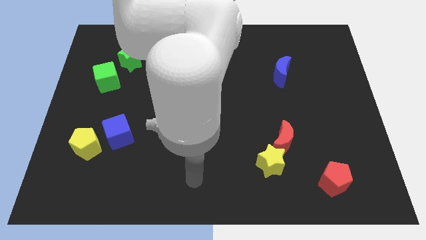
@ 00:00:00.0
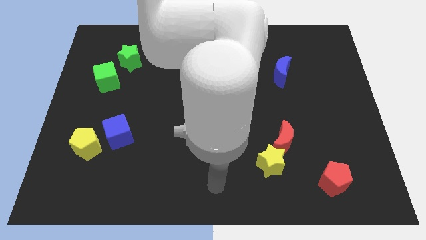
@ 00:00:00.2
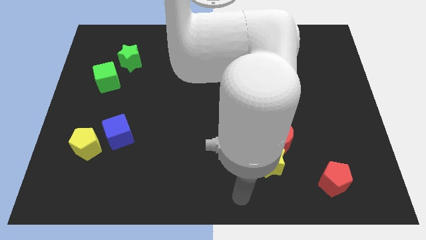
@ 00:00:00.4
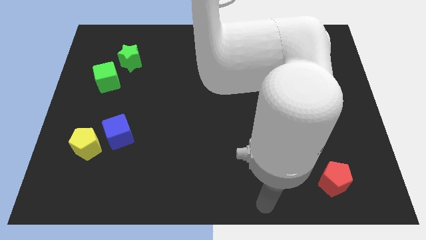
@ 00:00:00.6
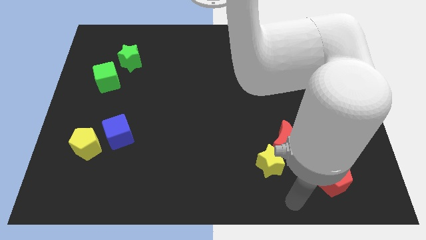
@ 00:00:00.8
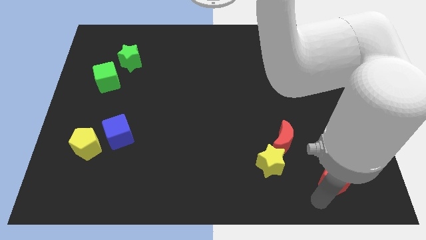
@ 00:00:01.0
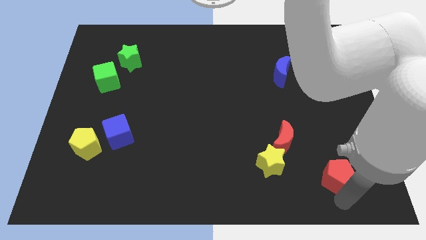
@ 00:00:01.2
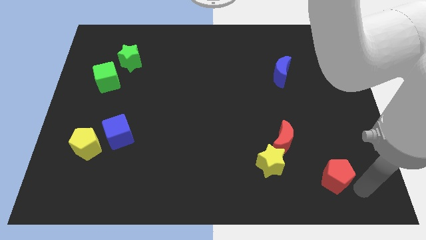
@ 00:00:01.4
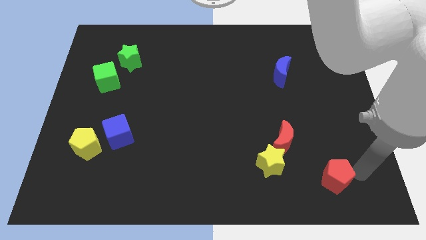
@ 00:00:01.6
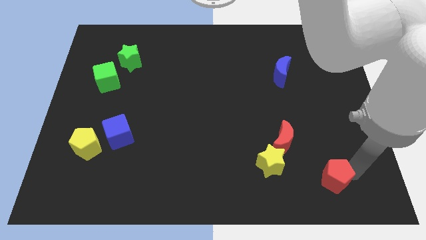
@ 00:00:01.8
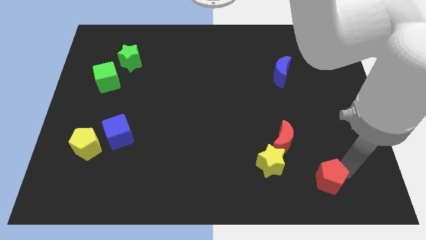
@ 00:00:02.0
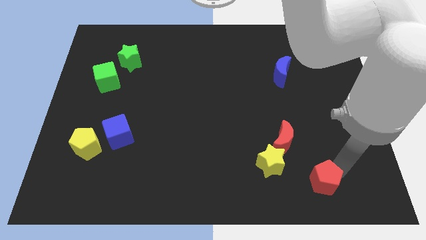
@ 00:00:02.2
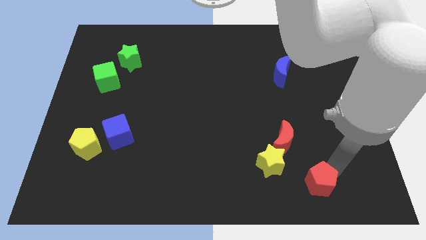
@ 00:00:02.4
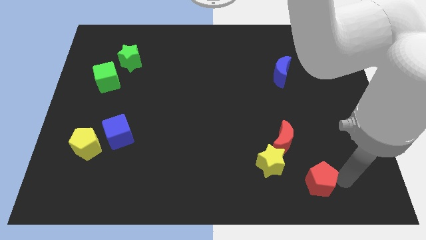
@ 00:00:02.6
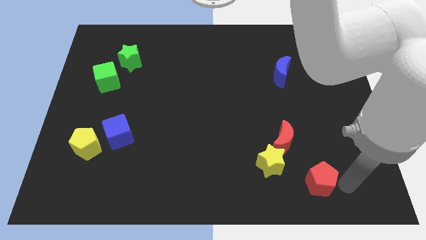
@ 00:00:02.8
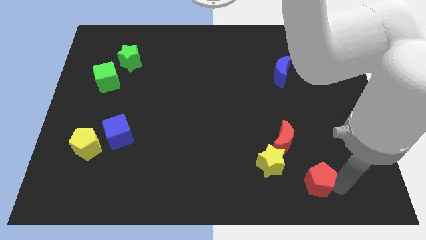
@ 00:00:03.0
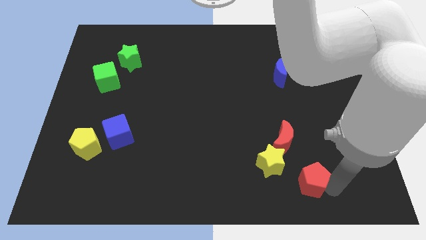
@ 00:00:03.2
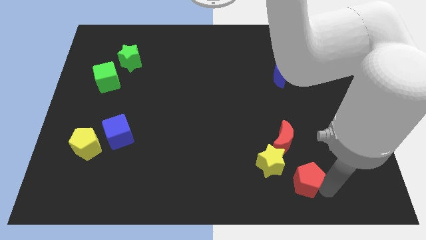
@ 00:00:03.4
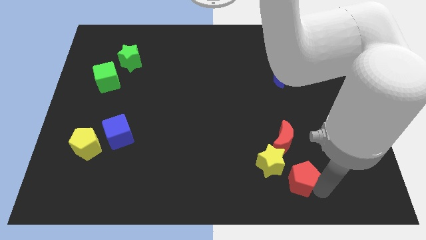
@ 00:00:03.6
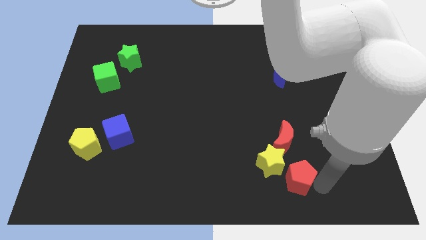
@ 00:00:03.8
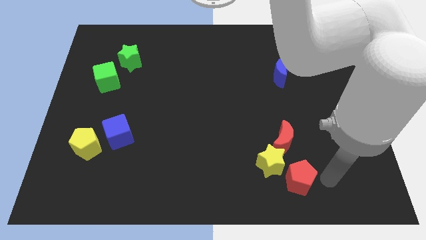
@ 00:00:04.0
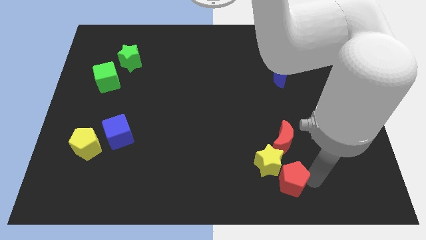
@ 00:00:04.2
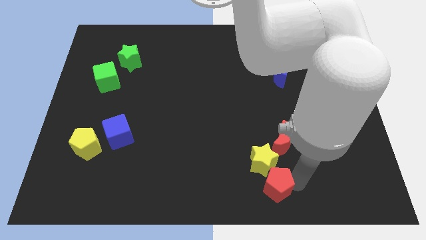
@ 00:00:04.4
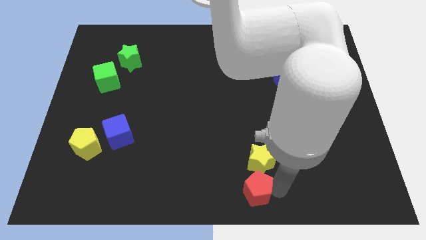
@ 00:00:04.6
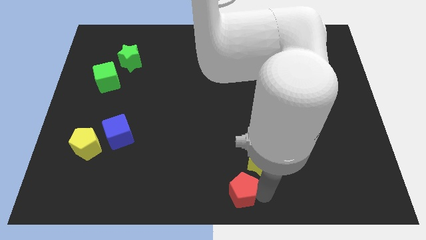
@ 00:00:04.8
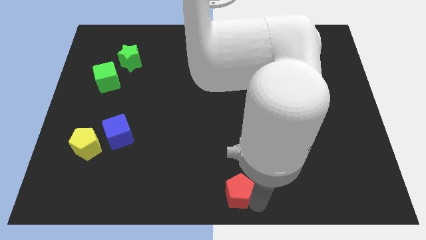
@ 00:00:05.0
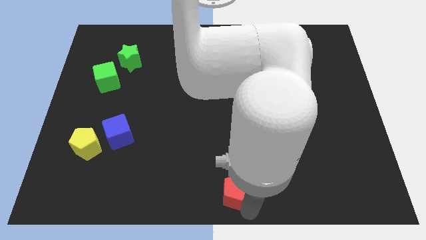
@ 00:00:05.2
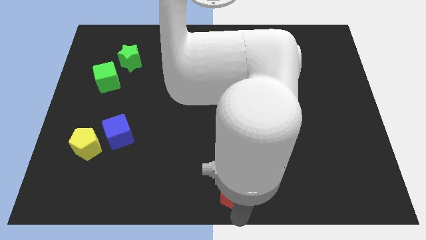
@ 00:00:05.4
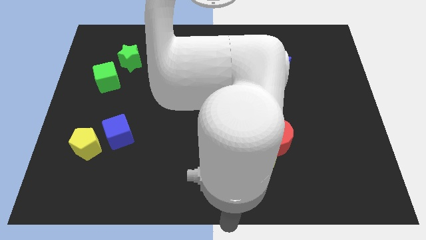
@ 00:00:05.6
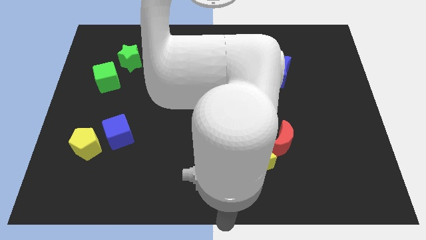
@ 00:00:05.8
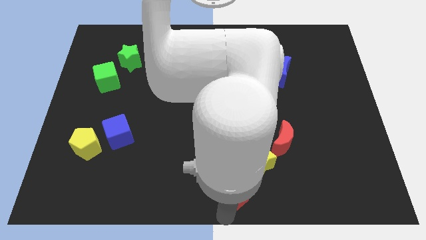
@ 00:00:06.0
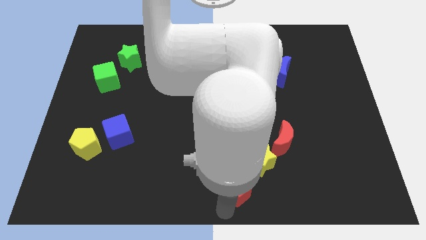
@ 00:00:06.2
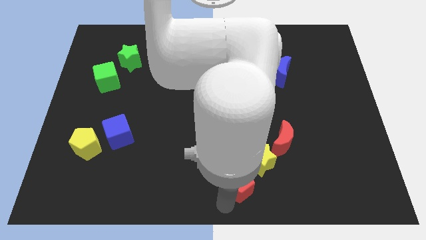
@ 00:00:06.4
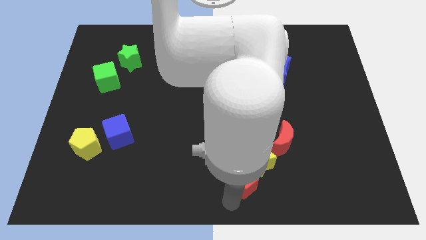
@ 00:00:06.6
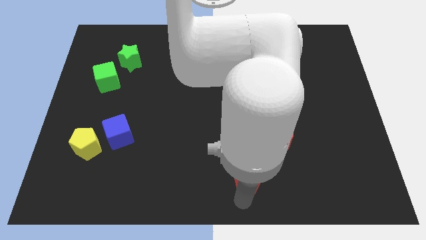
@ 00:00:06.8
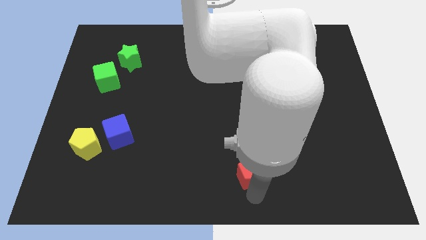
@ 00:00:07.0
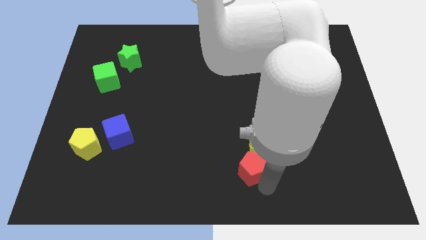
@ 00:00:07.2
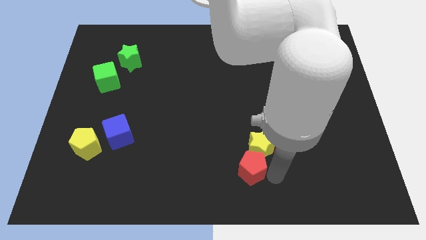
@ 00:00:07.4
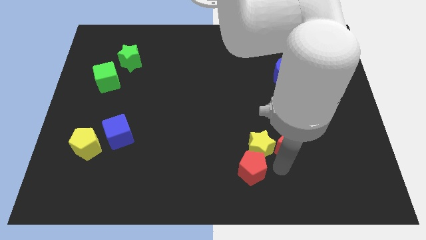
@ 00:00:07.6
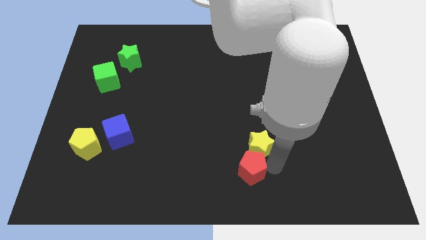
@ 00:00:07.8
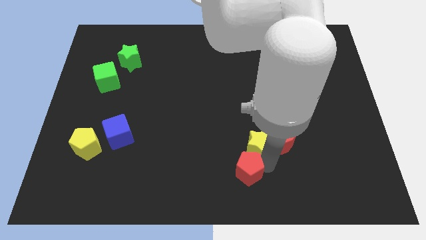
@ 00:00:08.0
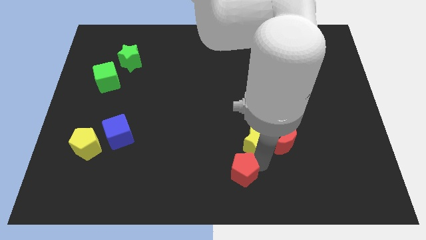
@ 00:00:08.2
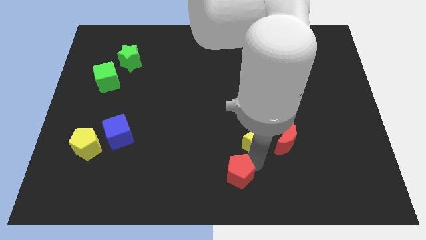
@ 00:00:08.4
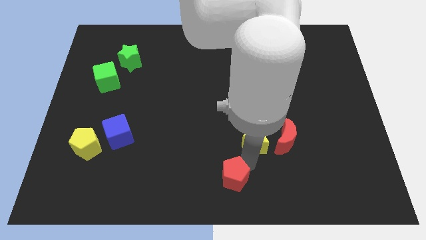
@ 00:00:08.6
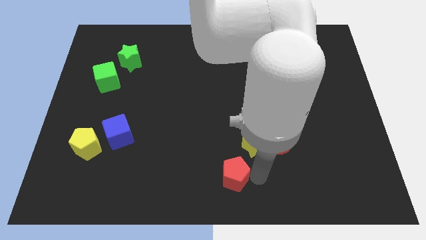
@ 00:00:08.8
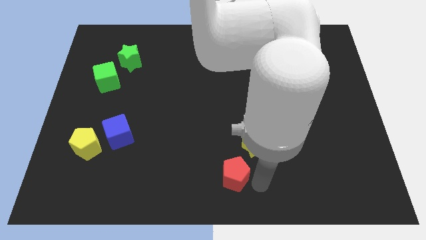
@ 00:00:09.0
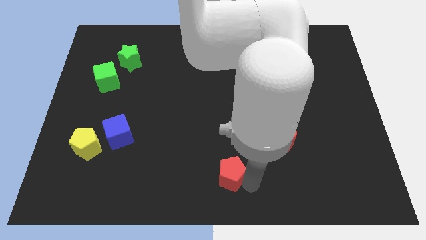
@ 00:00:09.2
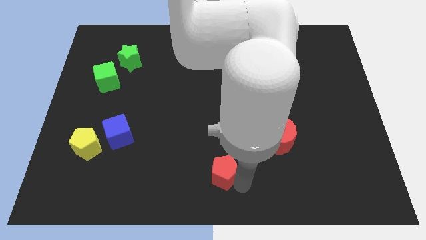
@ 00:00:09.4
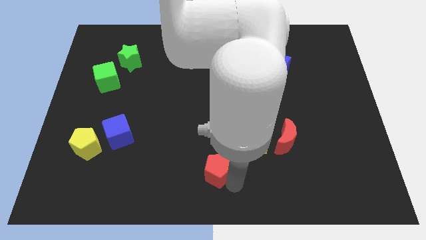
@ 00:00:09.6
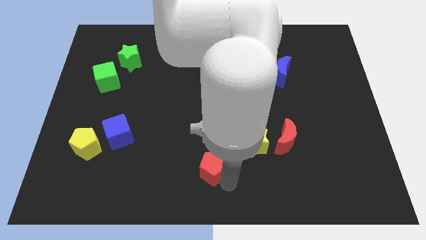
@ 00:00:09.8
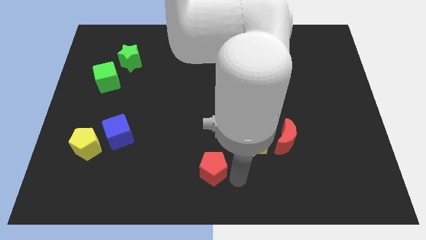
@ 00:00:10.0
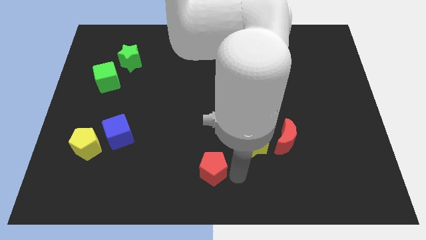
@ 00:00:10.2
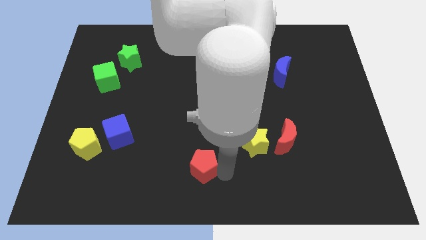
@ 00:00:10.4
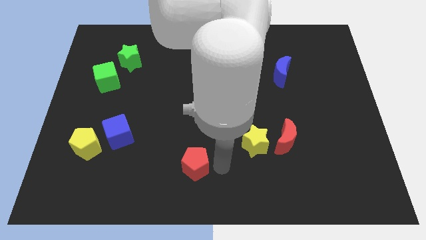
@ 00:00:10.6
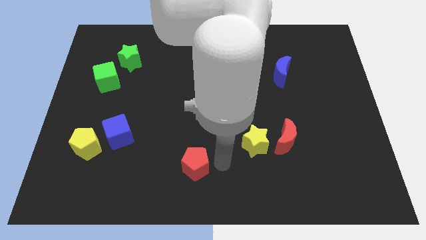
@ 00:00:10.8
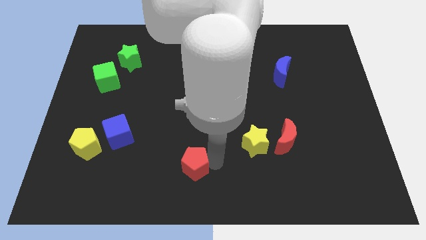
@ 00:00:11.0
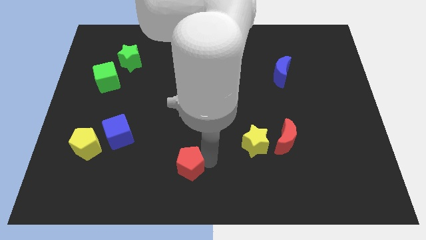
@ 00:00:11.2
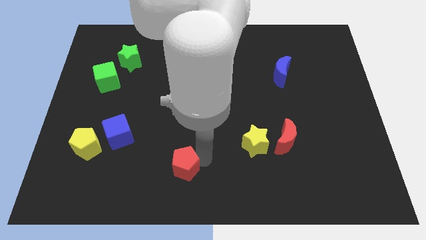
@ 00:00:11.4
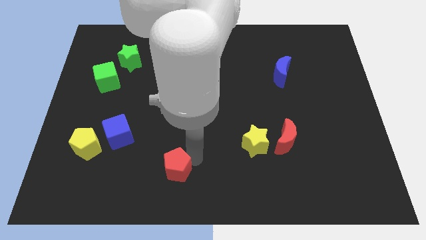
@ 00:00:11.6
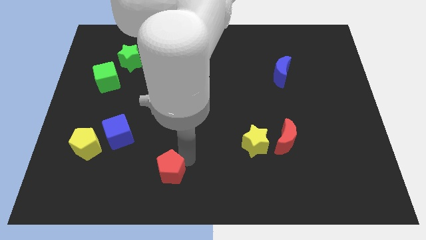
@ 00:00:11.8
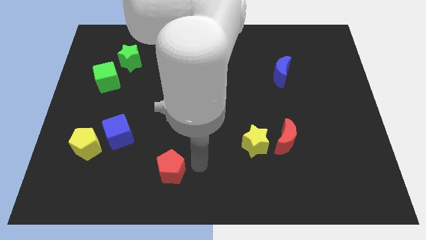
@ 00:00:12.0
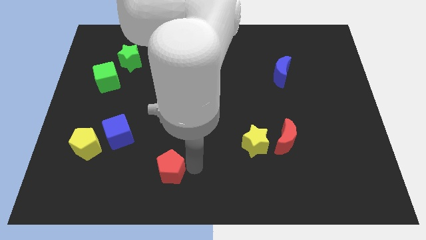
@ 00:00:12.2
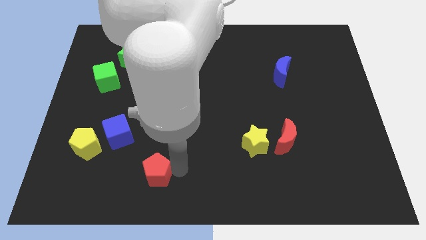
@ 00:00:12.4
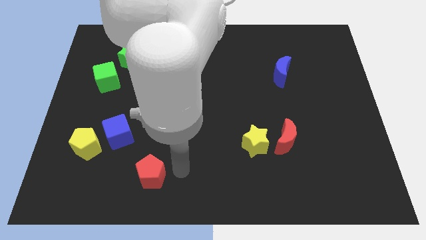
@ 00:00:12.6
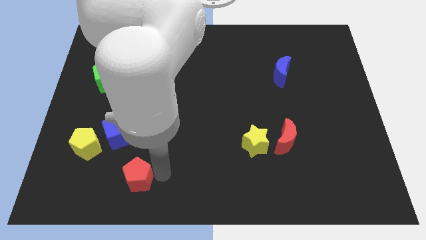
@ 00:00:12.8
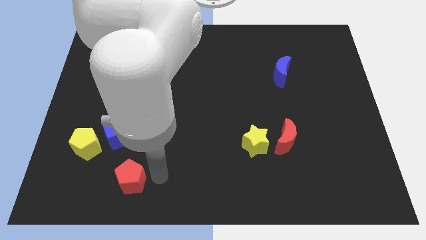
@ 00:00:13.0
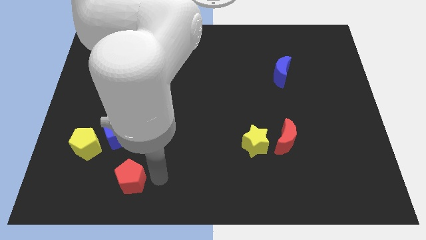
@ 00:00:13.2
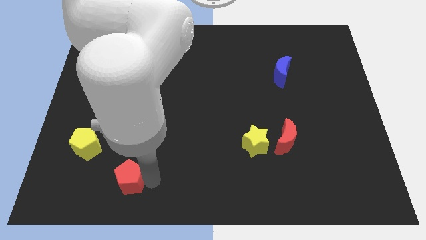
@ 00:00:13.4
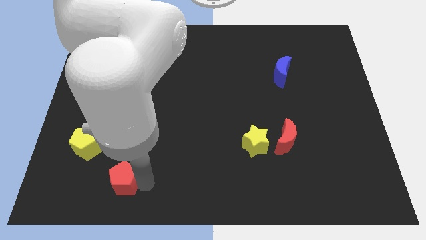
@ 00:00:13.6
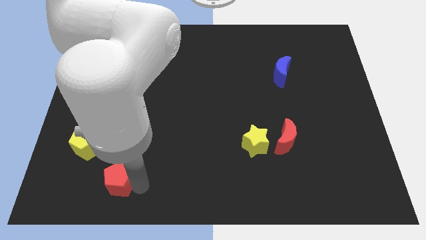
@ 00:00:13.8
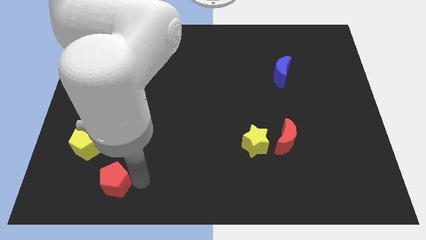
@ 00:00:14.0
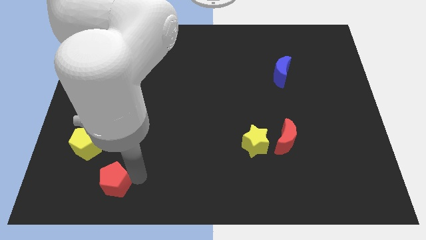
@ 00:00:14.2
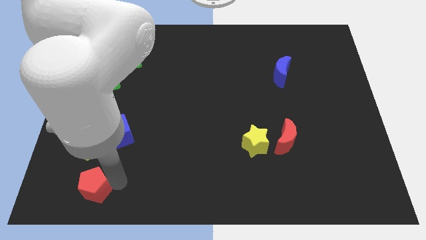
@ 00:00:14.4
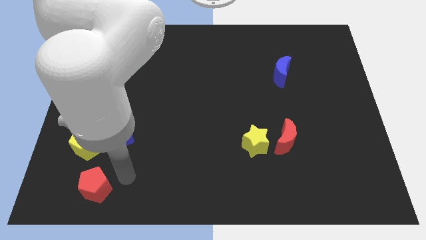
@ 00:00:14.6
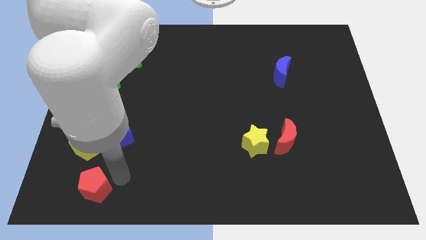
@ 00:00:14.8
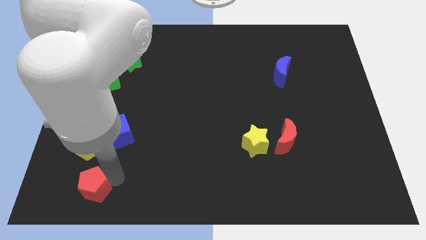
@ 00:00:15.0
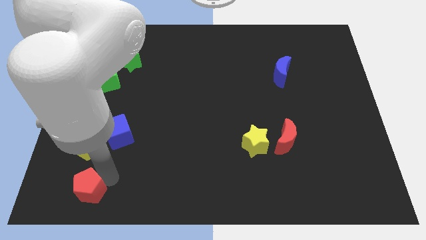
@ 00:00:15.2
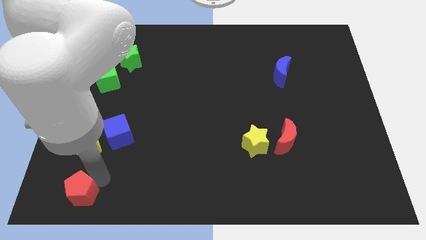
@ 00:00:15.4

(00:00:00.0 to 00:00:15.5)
slide the red pentagon to the bottom left corner
